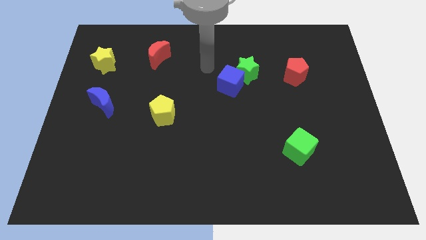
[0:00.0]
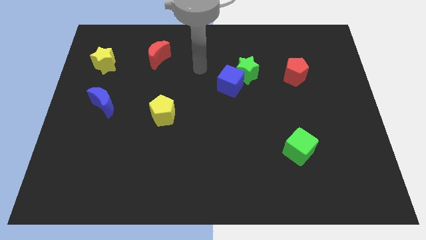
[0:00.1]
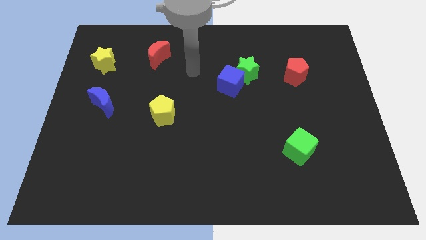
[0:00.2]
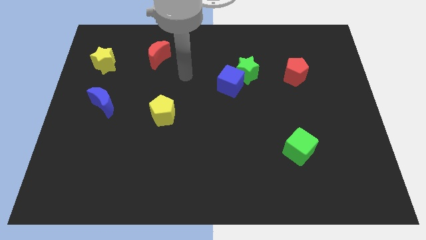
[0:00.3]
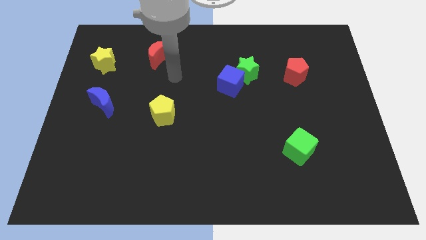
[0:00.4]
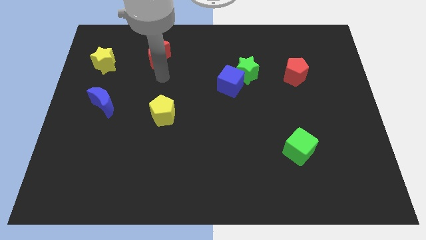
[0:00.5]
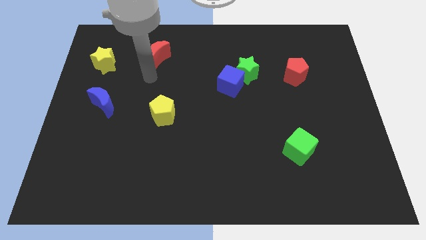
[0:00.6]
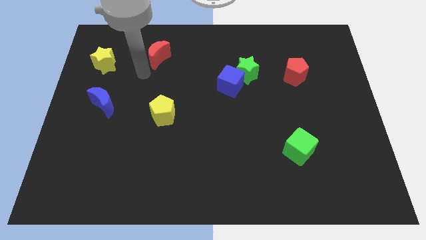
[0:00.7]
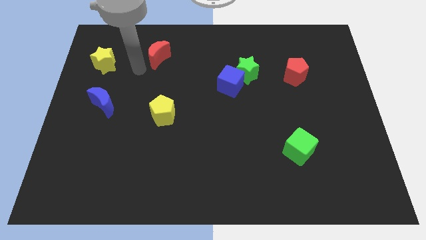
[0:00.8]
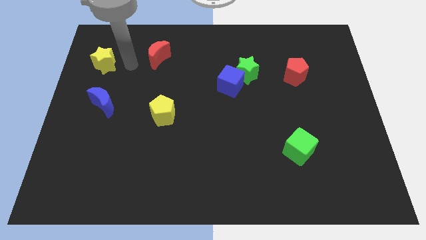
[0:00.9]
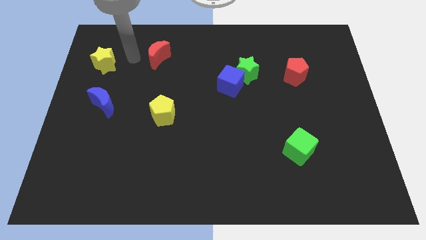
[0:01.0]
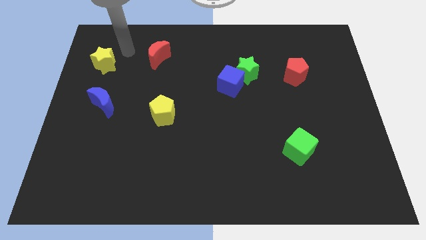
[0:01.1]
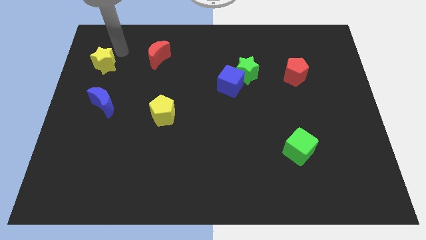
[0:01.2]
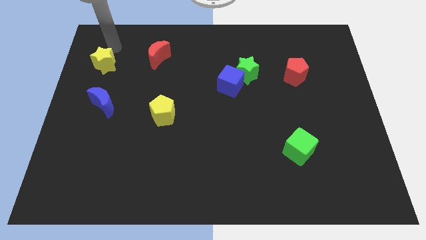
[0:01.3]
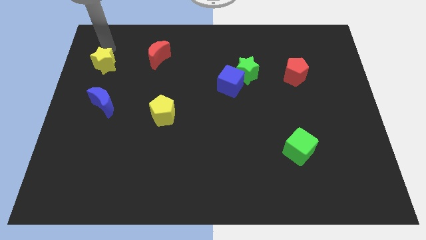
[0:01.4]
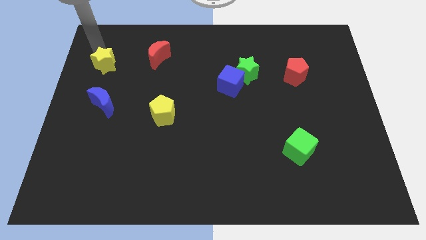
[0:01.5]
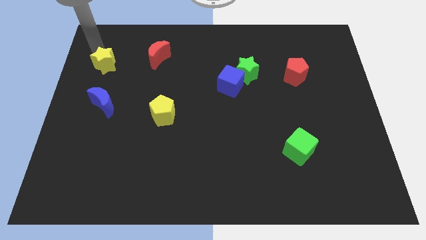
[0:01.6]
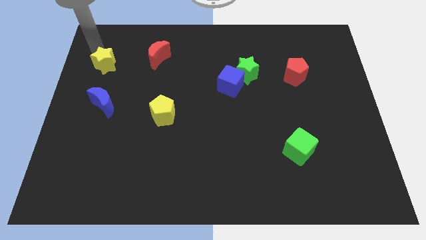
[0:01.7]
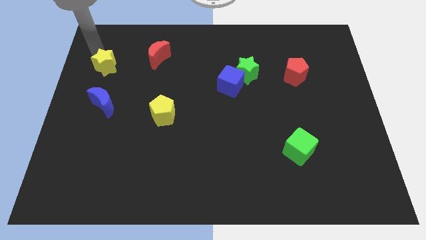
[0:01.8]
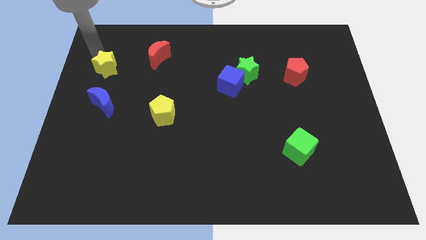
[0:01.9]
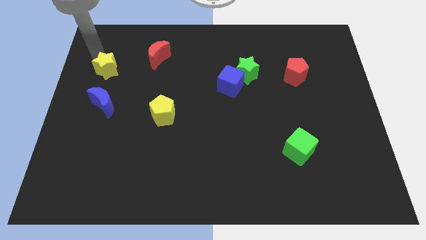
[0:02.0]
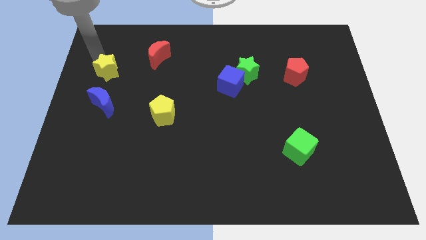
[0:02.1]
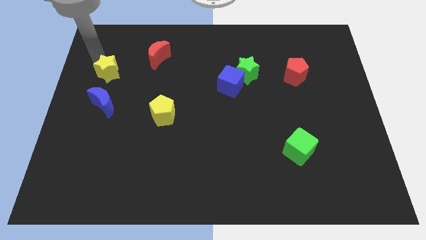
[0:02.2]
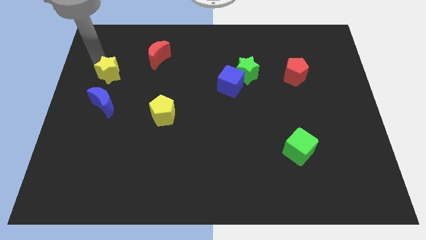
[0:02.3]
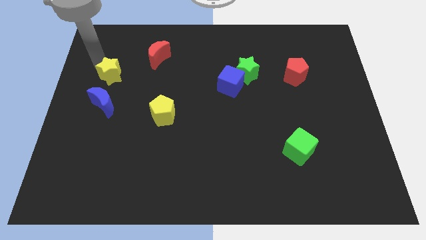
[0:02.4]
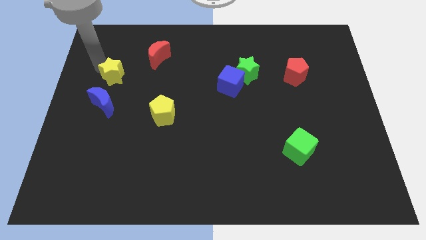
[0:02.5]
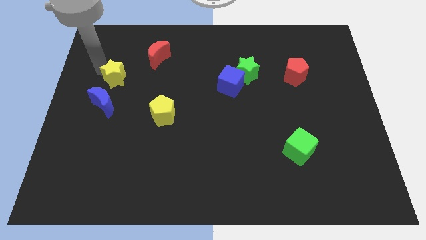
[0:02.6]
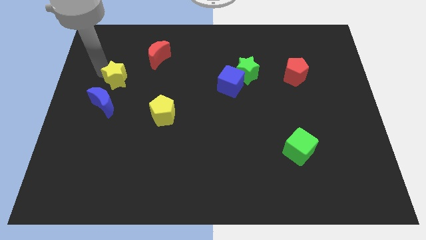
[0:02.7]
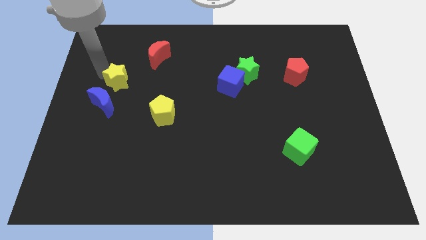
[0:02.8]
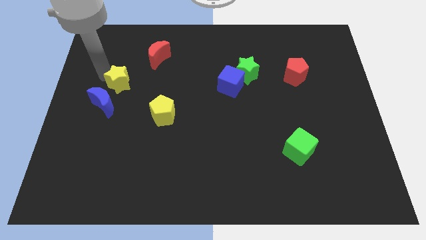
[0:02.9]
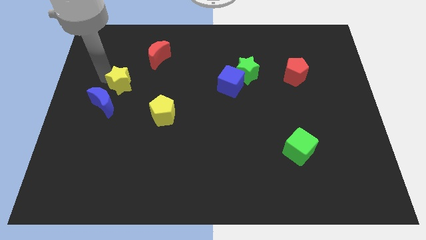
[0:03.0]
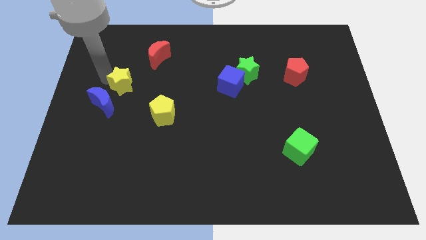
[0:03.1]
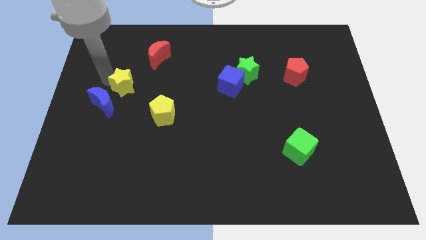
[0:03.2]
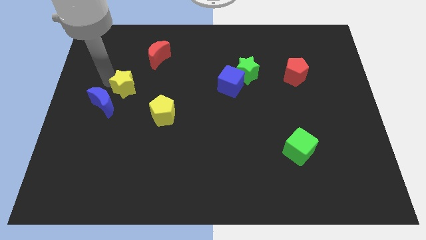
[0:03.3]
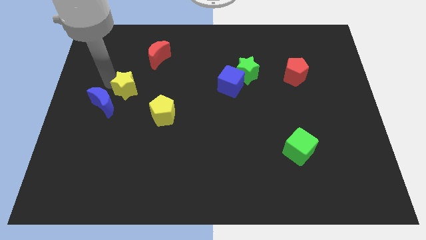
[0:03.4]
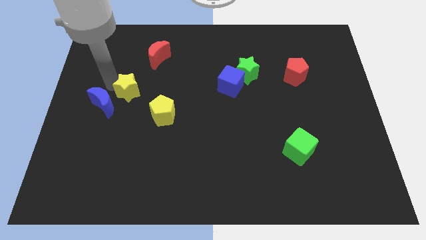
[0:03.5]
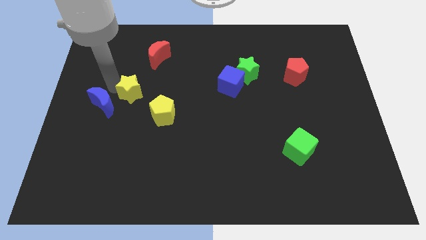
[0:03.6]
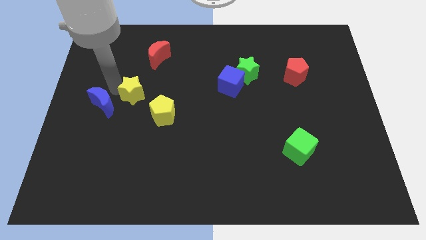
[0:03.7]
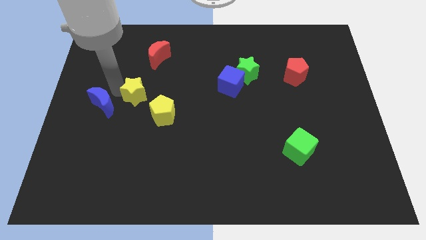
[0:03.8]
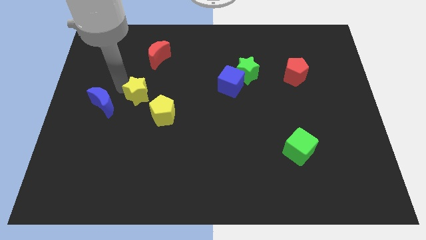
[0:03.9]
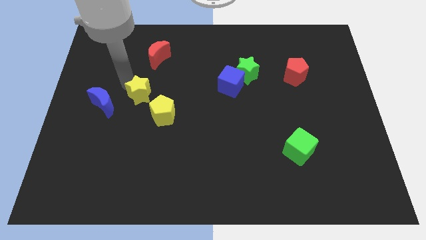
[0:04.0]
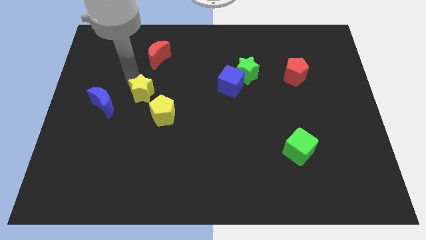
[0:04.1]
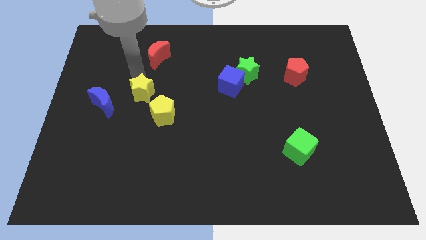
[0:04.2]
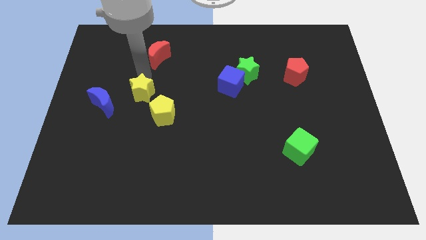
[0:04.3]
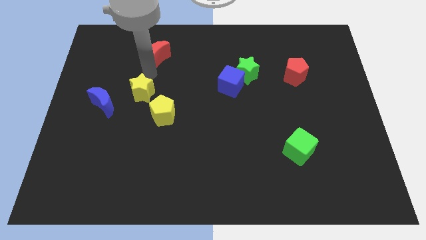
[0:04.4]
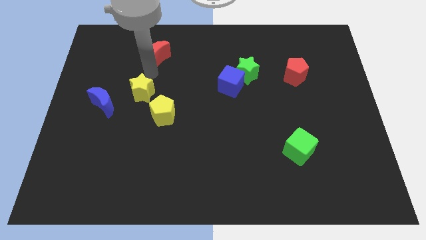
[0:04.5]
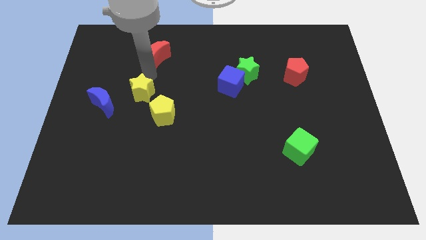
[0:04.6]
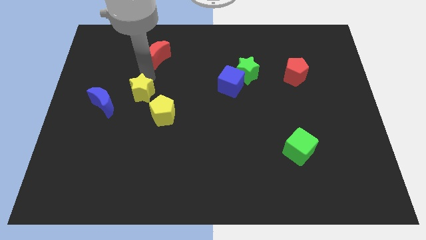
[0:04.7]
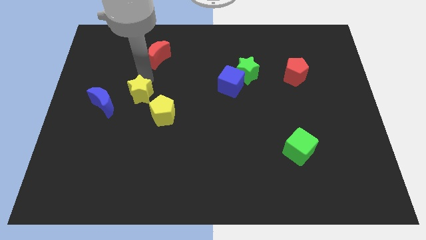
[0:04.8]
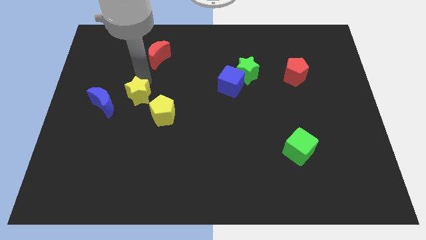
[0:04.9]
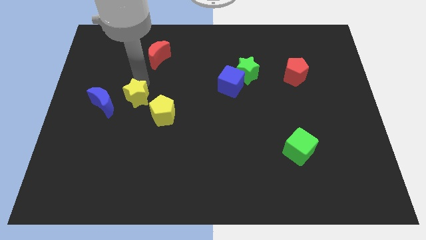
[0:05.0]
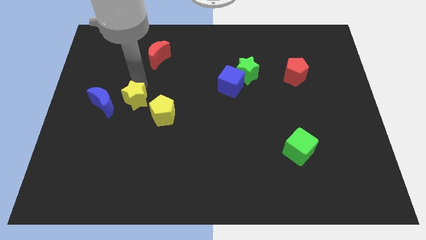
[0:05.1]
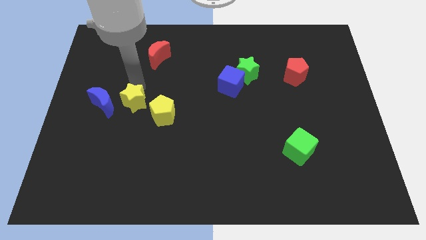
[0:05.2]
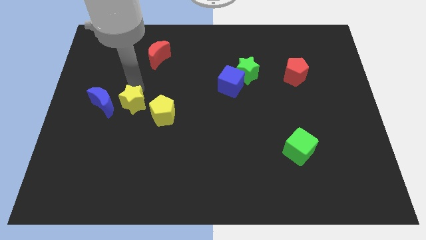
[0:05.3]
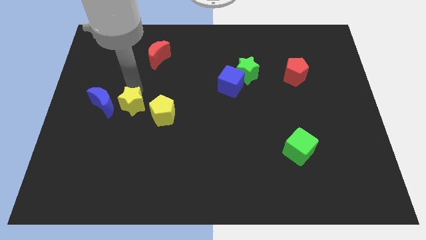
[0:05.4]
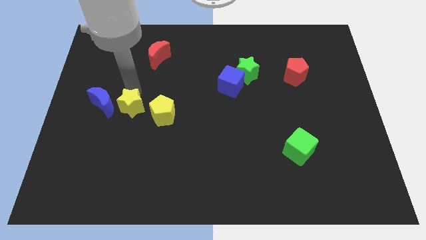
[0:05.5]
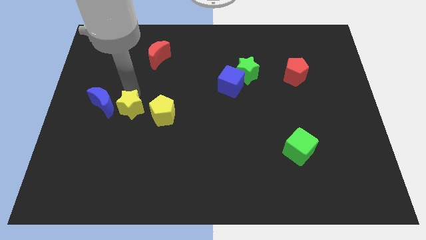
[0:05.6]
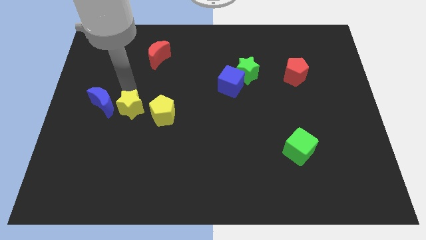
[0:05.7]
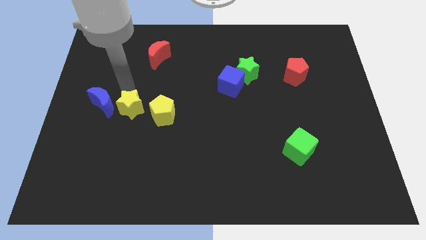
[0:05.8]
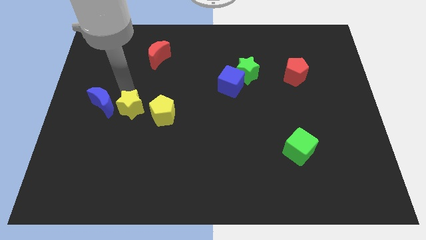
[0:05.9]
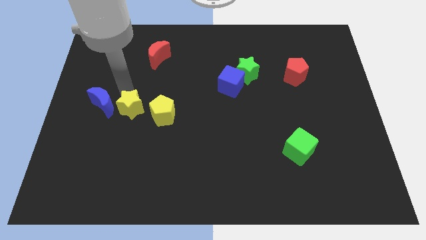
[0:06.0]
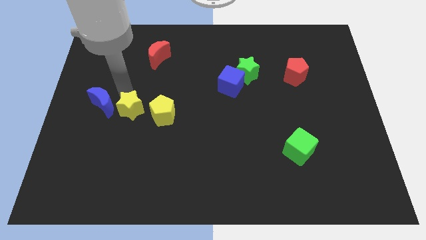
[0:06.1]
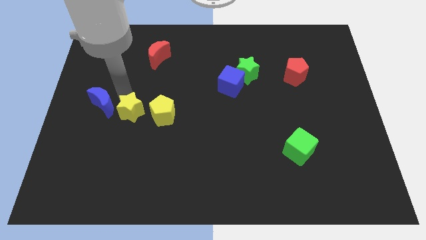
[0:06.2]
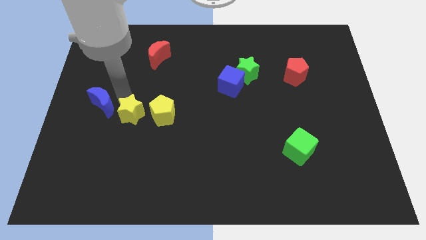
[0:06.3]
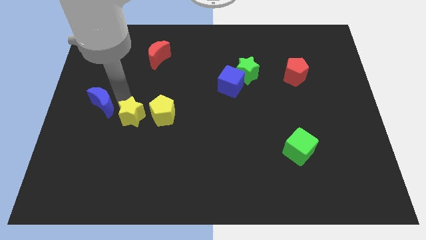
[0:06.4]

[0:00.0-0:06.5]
move the yellow star diagonally down and to the left of the yellow pentagon
